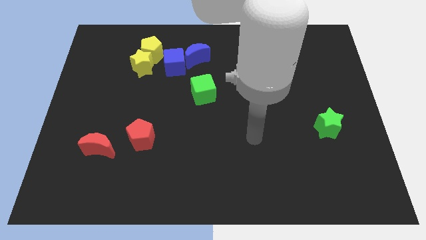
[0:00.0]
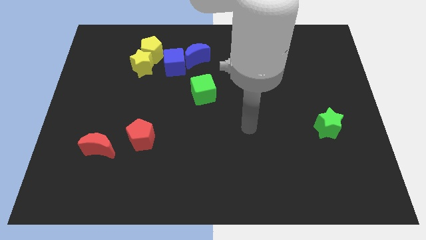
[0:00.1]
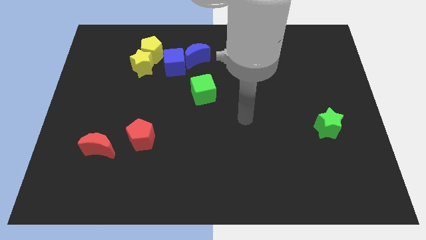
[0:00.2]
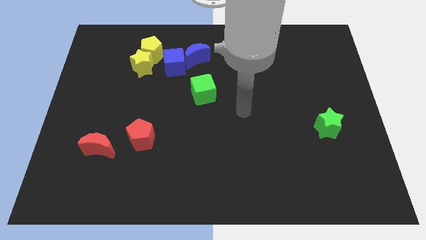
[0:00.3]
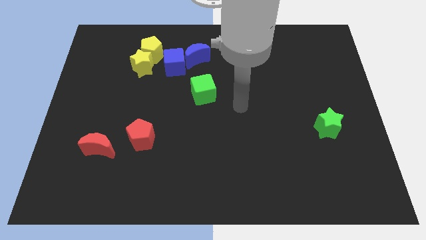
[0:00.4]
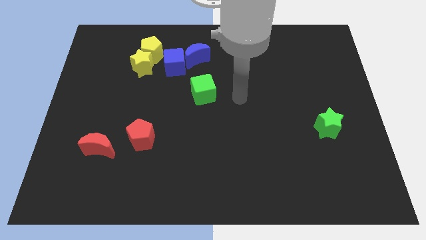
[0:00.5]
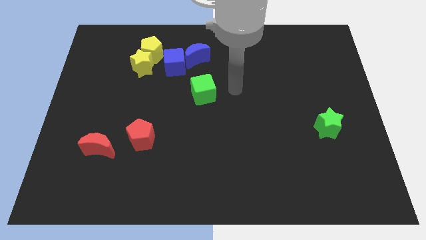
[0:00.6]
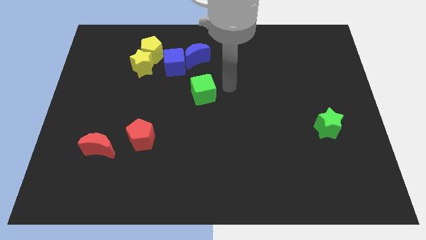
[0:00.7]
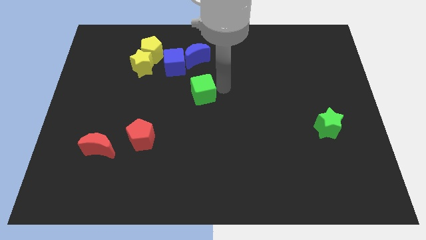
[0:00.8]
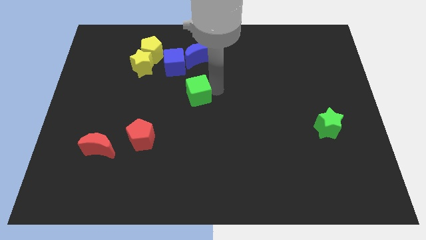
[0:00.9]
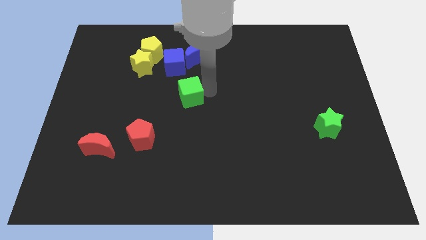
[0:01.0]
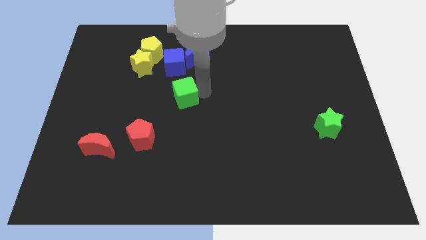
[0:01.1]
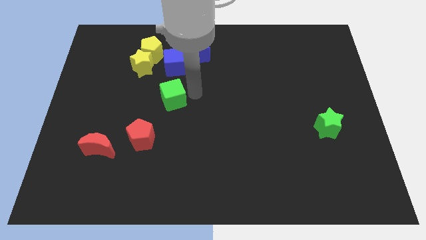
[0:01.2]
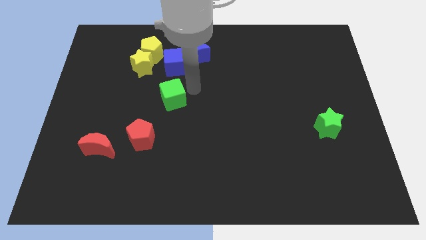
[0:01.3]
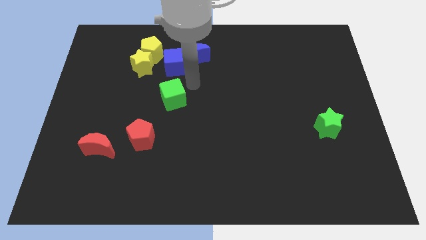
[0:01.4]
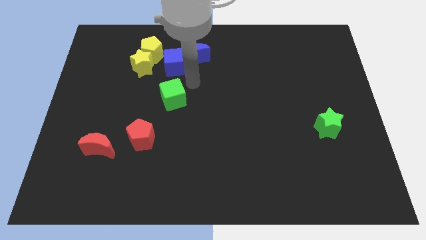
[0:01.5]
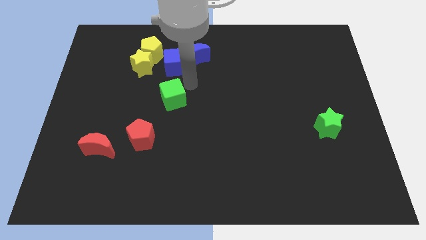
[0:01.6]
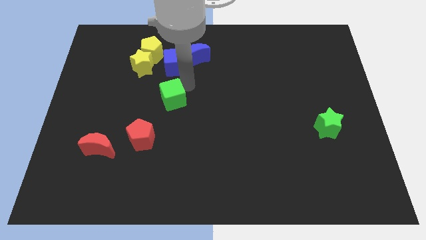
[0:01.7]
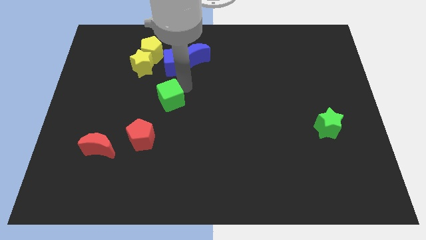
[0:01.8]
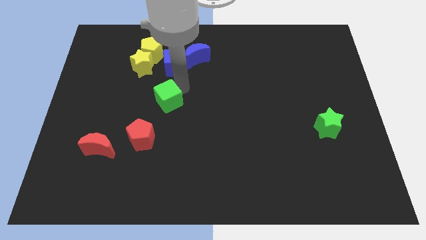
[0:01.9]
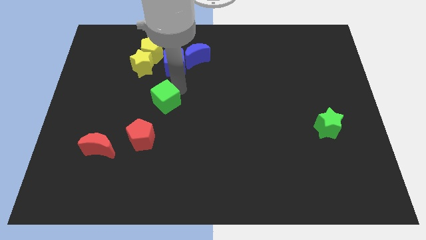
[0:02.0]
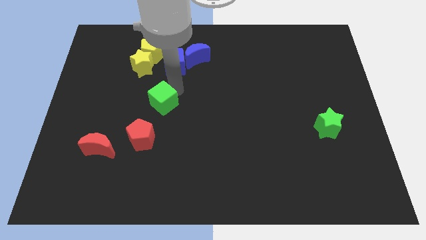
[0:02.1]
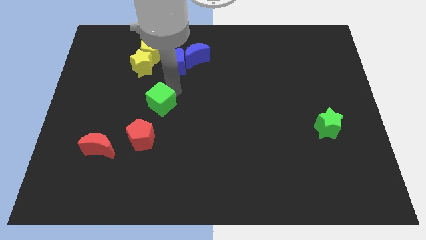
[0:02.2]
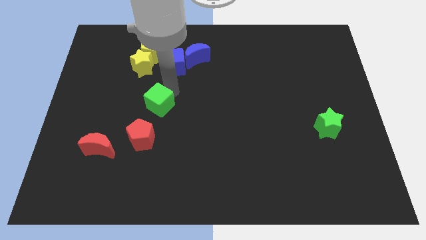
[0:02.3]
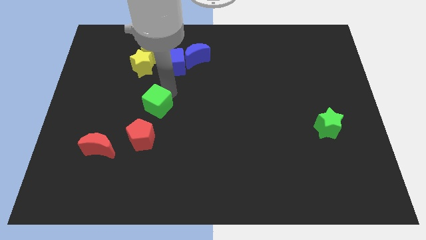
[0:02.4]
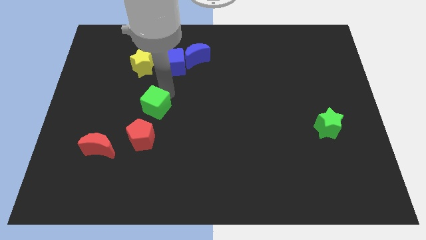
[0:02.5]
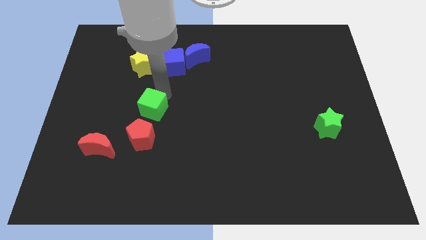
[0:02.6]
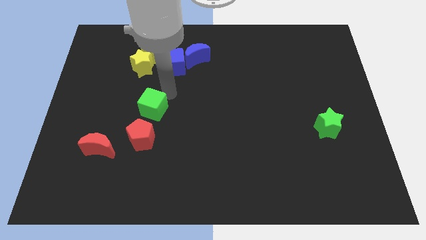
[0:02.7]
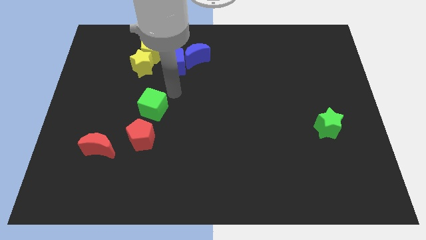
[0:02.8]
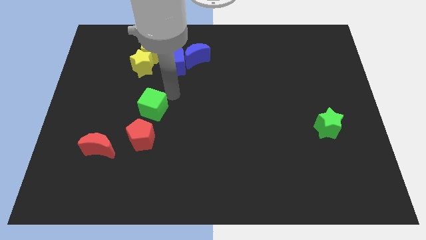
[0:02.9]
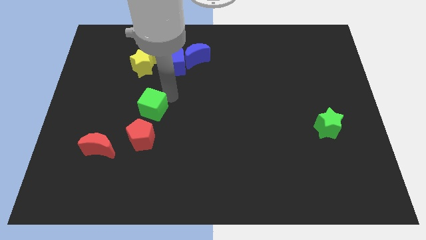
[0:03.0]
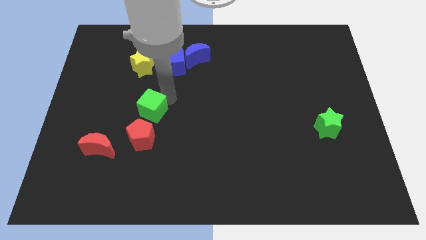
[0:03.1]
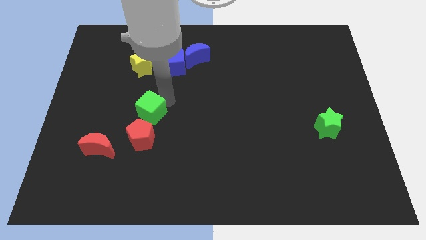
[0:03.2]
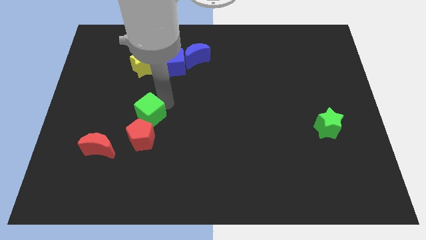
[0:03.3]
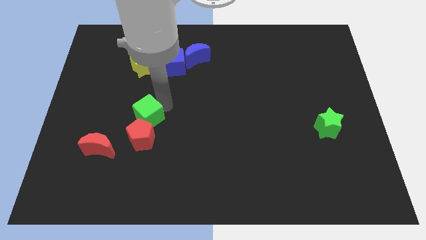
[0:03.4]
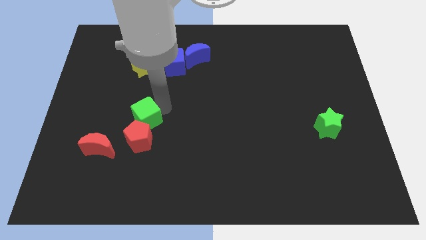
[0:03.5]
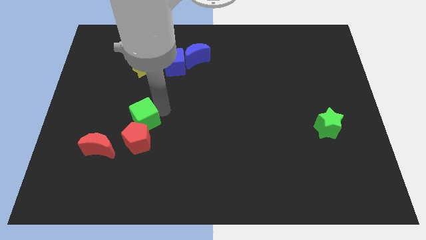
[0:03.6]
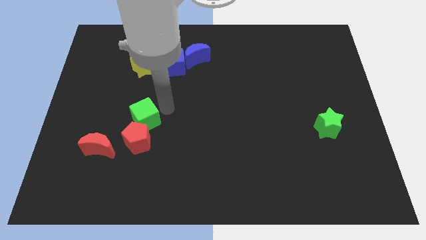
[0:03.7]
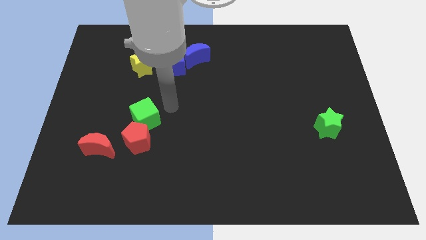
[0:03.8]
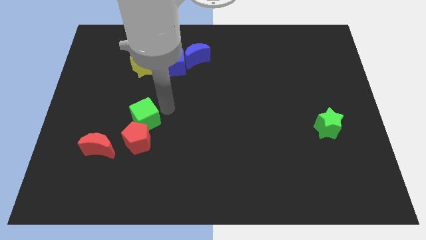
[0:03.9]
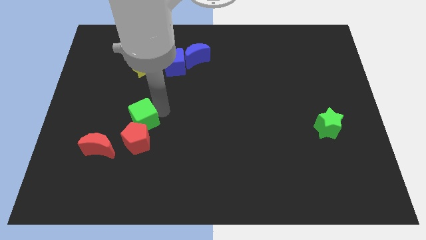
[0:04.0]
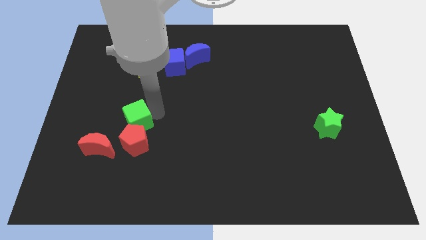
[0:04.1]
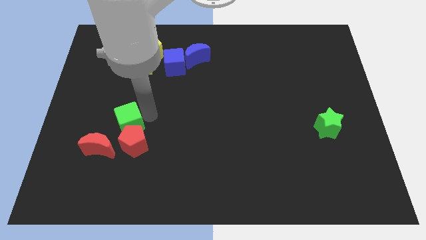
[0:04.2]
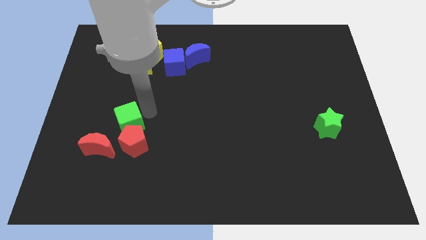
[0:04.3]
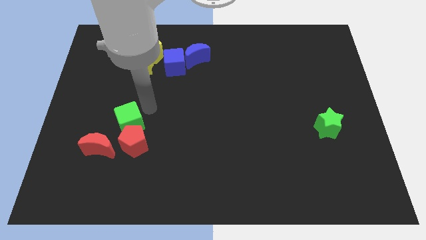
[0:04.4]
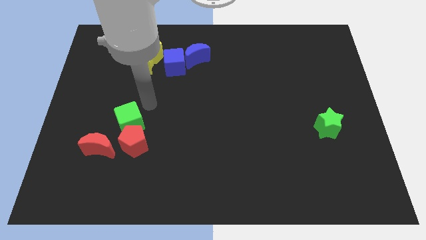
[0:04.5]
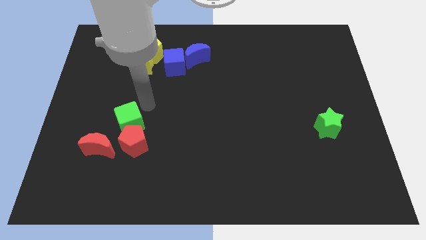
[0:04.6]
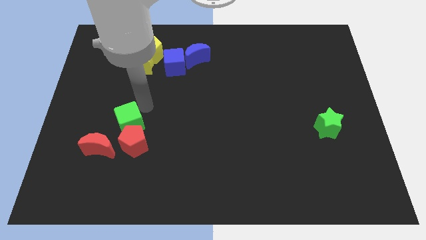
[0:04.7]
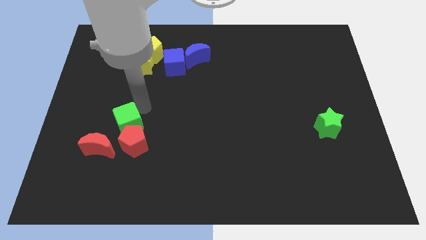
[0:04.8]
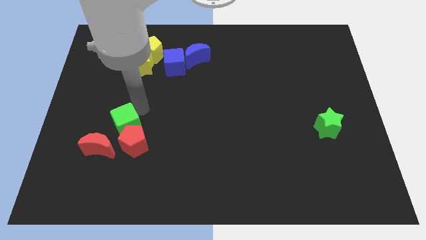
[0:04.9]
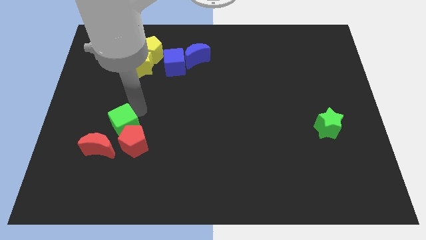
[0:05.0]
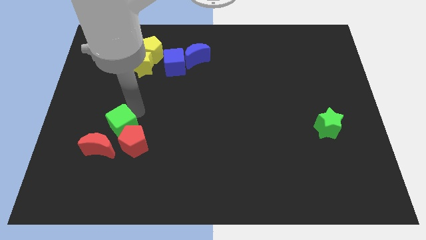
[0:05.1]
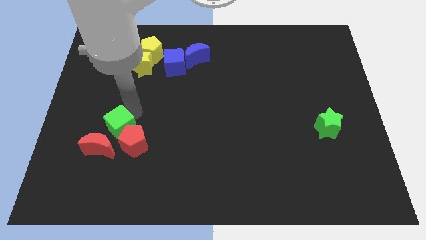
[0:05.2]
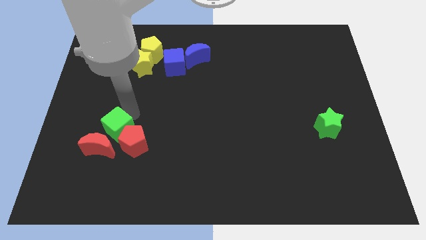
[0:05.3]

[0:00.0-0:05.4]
push the green cube close to the red moon

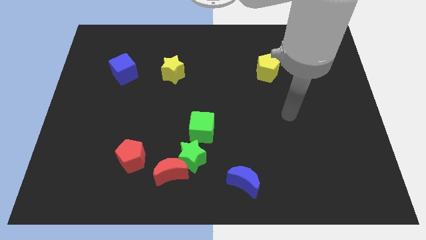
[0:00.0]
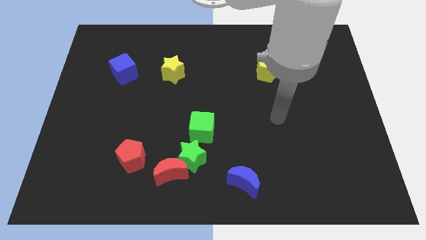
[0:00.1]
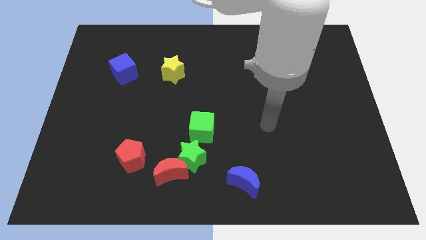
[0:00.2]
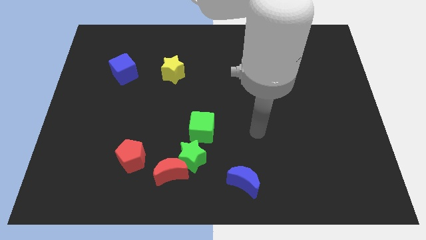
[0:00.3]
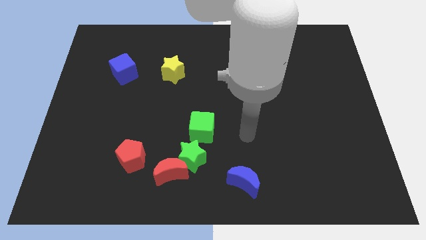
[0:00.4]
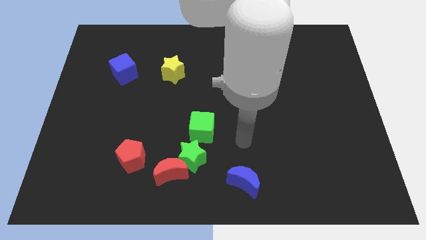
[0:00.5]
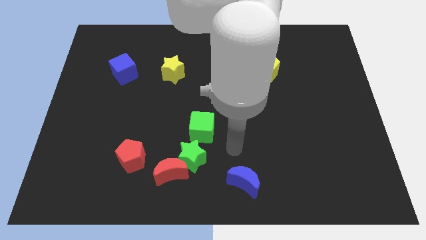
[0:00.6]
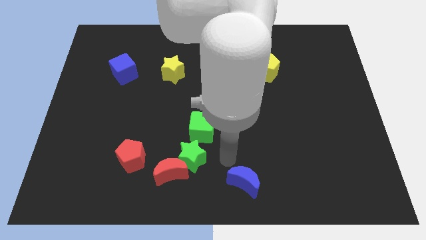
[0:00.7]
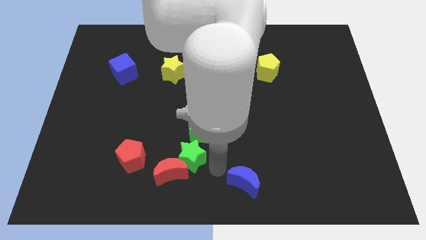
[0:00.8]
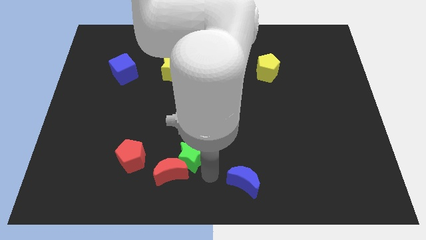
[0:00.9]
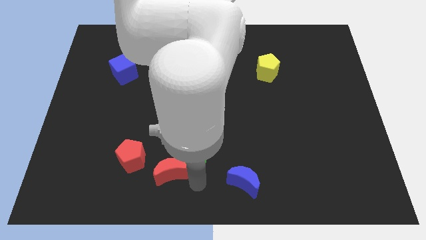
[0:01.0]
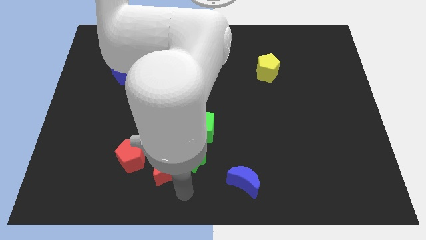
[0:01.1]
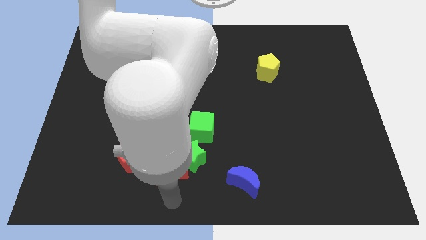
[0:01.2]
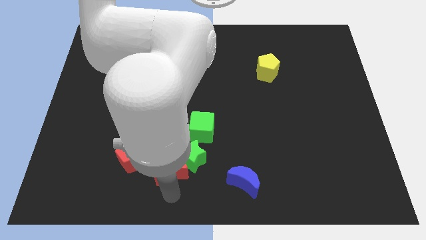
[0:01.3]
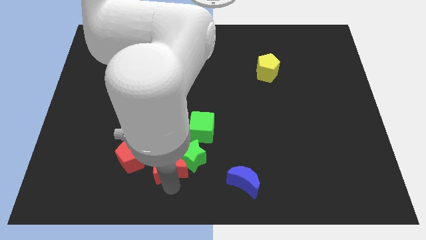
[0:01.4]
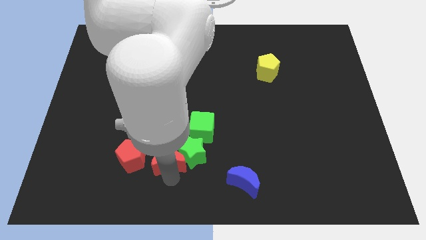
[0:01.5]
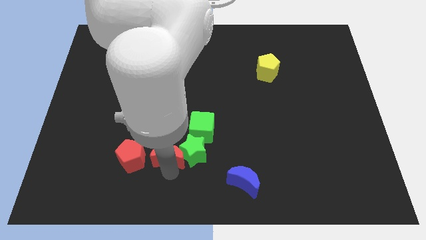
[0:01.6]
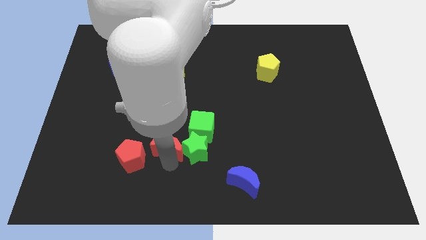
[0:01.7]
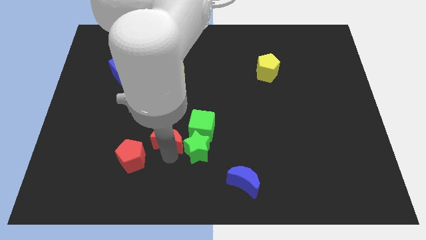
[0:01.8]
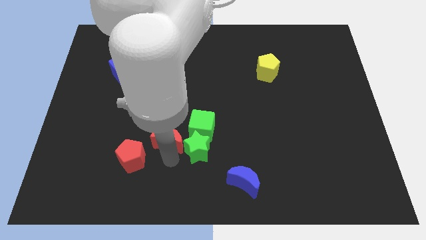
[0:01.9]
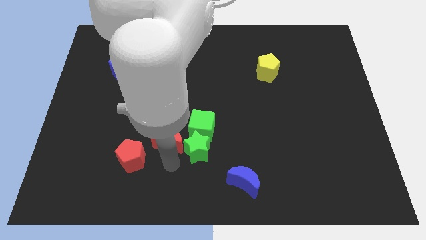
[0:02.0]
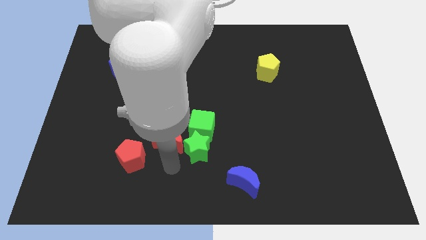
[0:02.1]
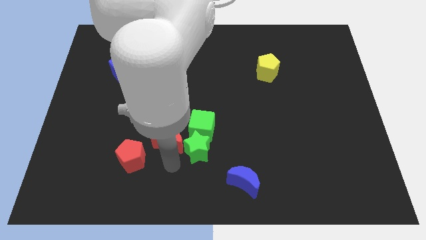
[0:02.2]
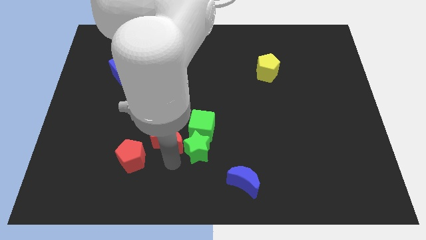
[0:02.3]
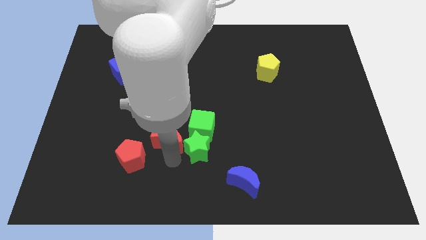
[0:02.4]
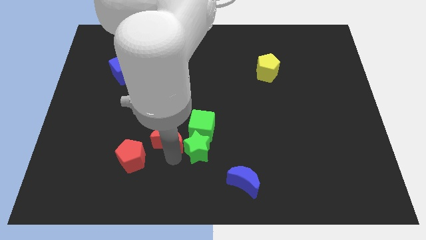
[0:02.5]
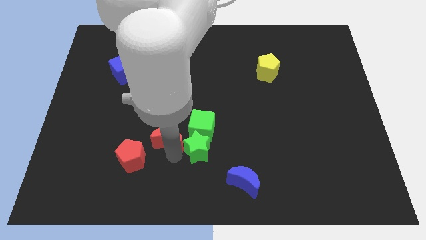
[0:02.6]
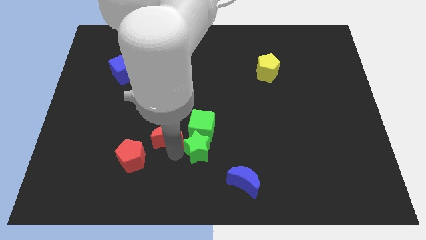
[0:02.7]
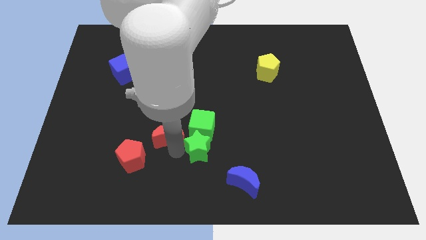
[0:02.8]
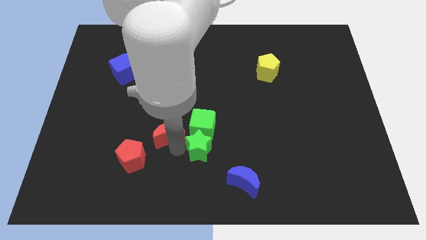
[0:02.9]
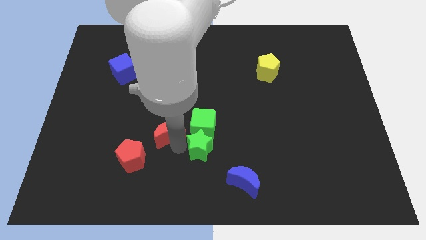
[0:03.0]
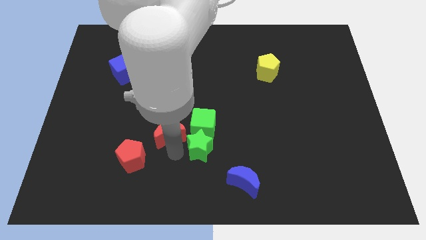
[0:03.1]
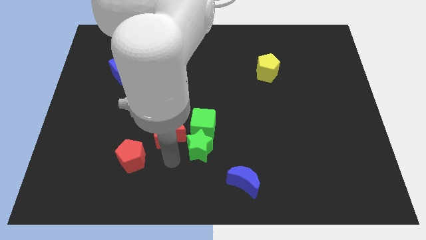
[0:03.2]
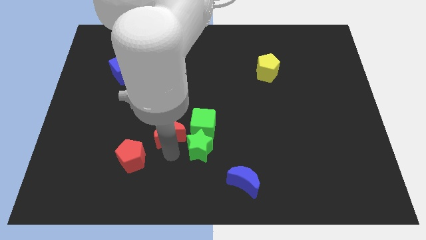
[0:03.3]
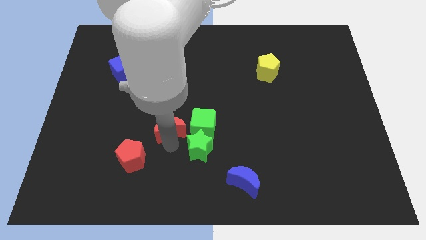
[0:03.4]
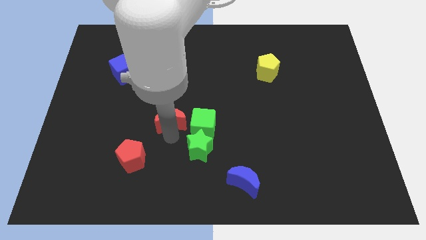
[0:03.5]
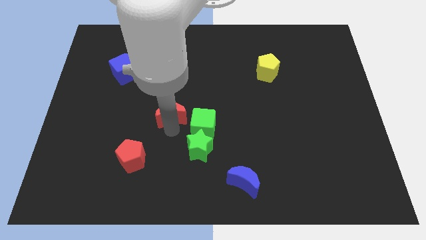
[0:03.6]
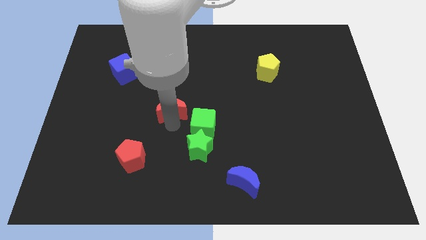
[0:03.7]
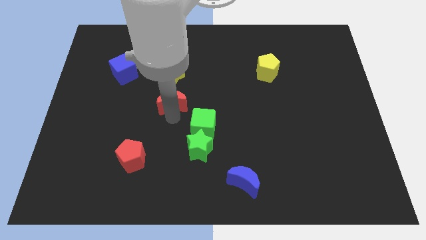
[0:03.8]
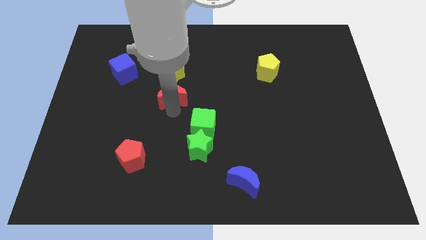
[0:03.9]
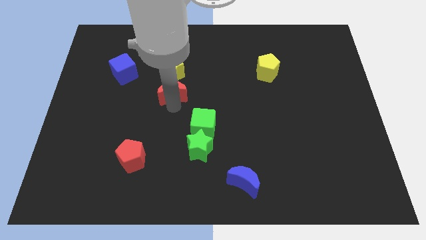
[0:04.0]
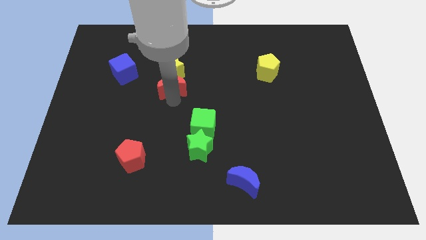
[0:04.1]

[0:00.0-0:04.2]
put the red moon next to the yellow star
